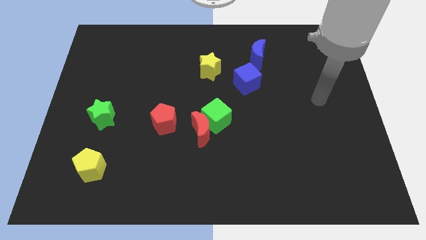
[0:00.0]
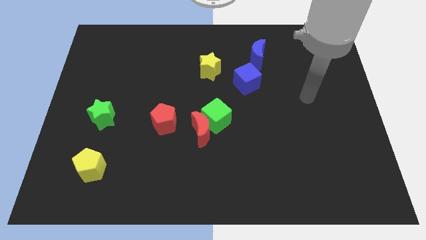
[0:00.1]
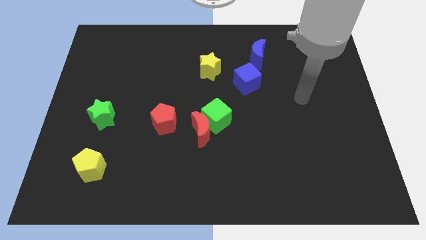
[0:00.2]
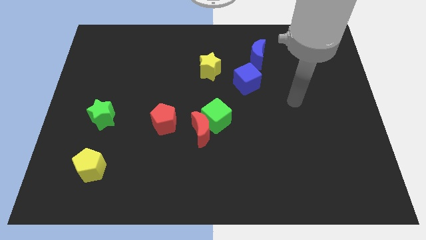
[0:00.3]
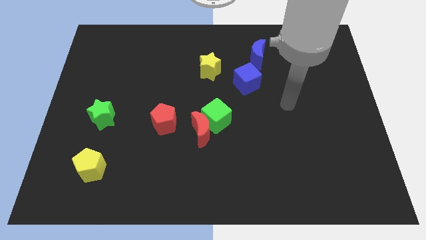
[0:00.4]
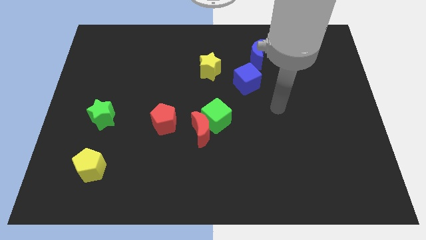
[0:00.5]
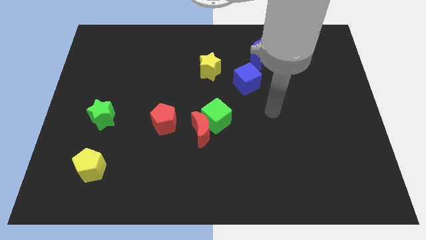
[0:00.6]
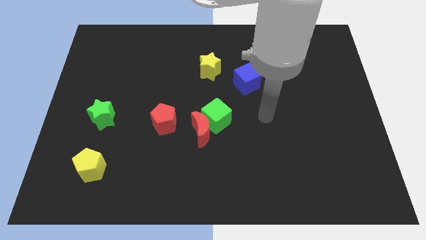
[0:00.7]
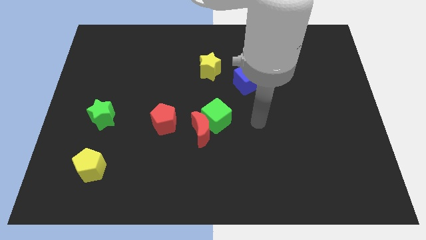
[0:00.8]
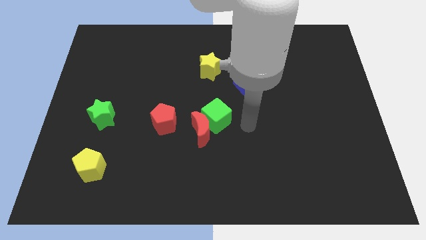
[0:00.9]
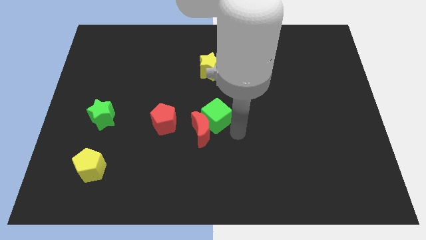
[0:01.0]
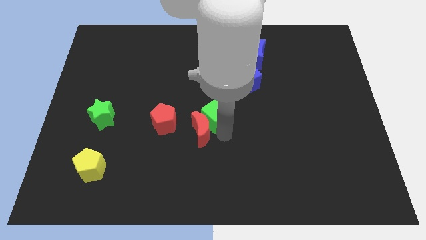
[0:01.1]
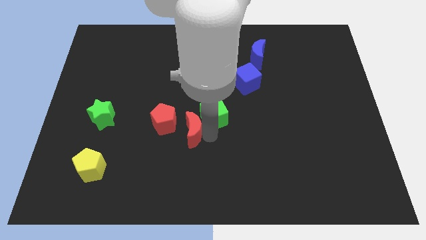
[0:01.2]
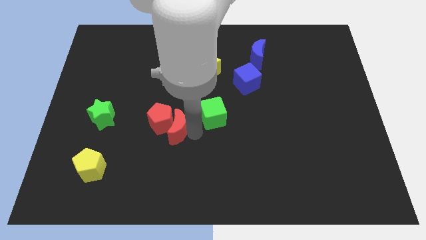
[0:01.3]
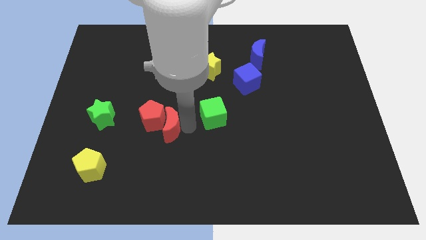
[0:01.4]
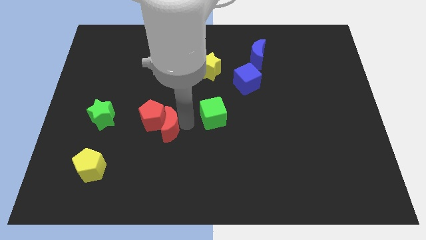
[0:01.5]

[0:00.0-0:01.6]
move the green cube away from the red moon

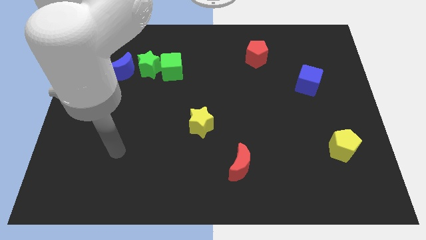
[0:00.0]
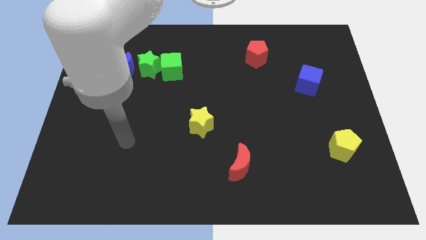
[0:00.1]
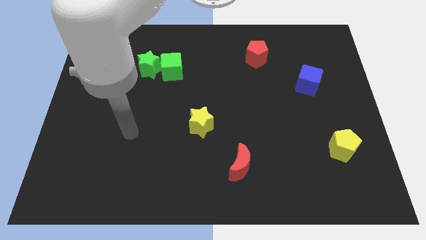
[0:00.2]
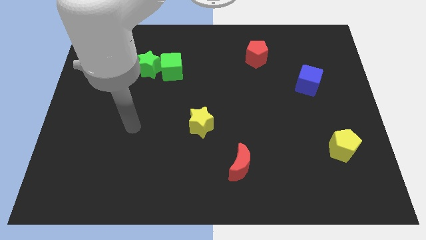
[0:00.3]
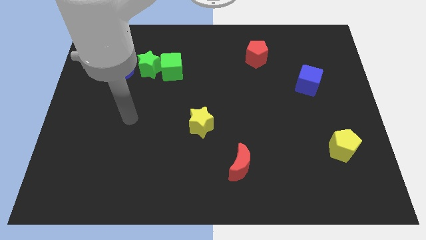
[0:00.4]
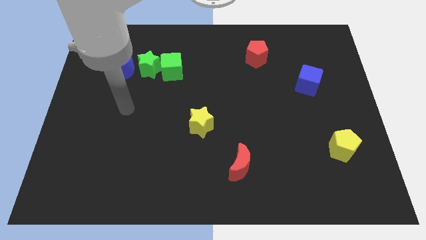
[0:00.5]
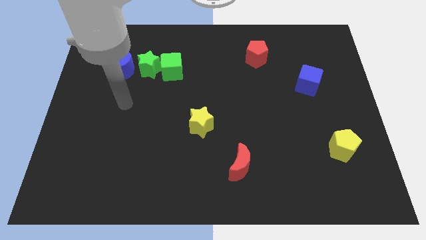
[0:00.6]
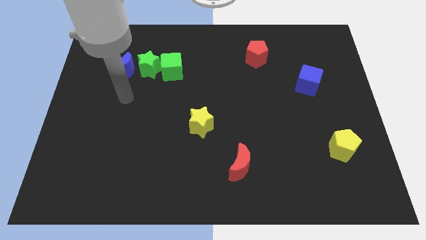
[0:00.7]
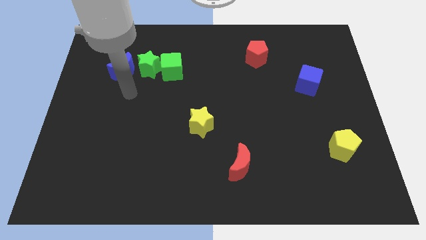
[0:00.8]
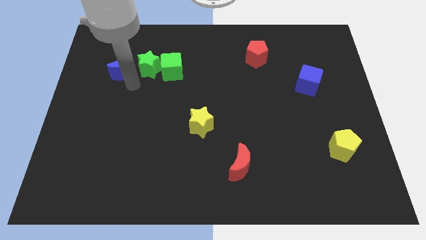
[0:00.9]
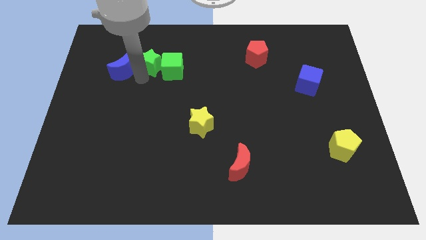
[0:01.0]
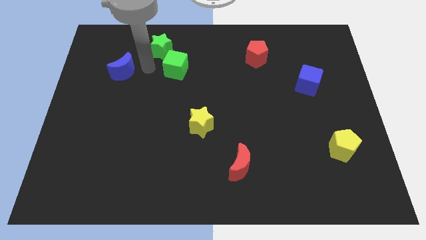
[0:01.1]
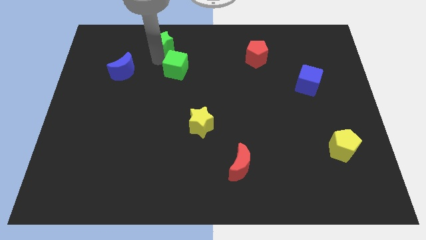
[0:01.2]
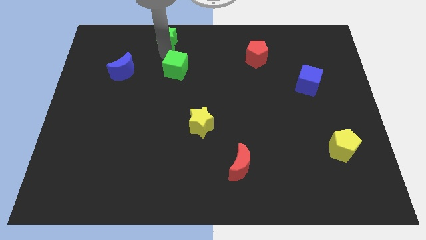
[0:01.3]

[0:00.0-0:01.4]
separate the green cube from the green star

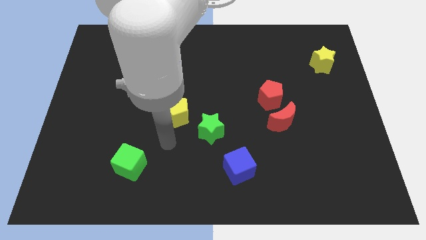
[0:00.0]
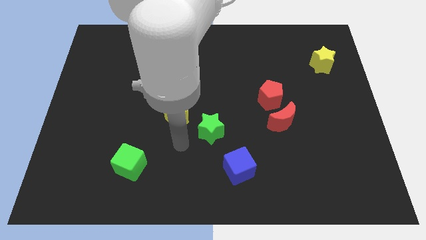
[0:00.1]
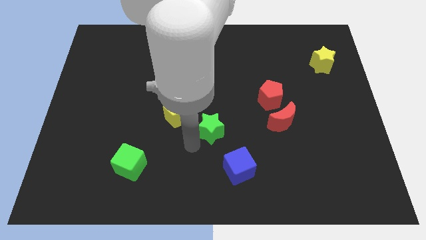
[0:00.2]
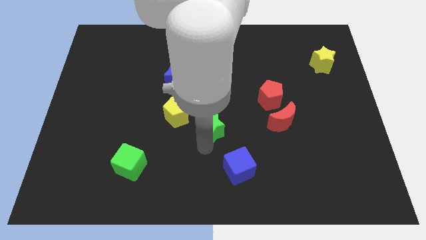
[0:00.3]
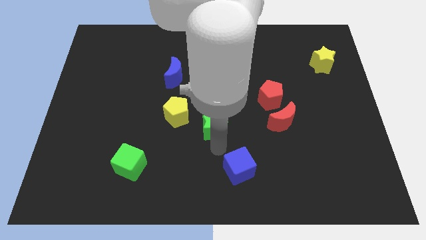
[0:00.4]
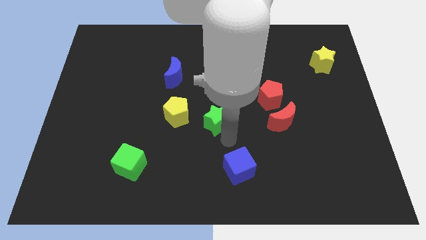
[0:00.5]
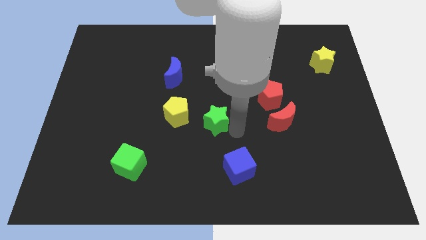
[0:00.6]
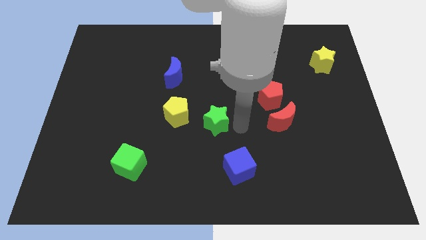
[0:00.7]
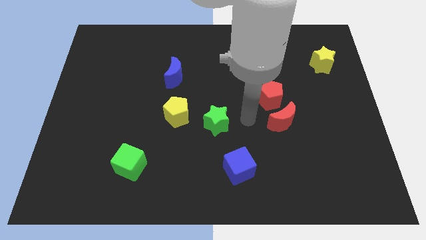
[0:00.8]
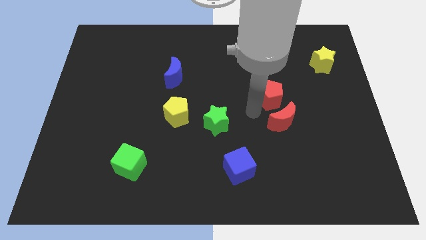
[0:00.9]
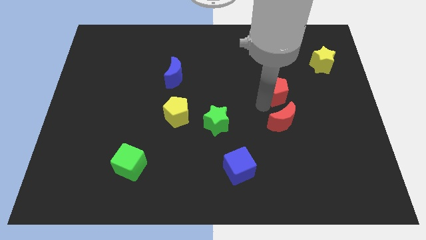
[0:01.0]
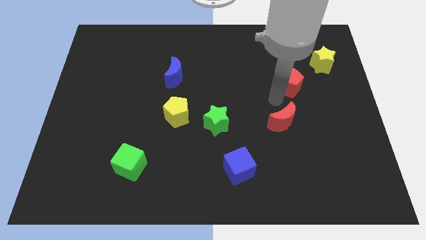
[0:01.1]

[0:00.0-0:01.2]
move the red moon away from the red pentagon

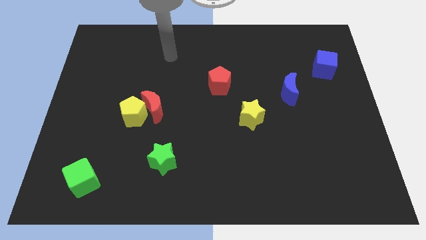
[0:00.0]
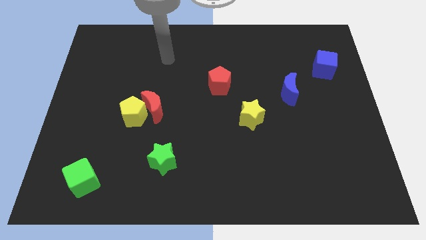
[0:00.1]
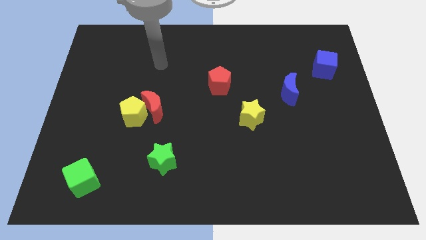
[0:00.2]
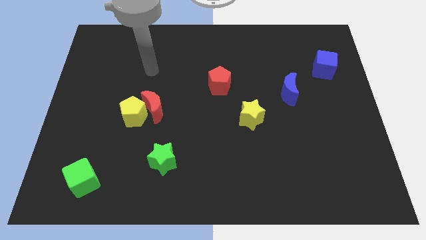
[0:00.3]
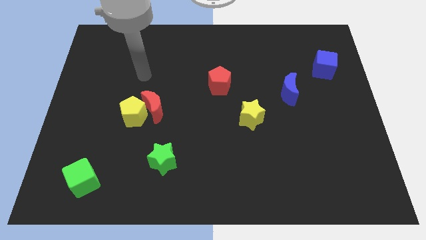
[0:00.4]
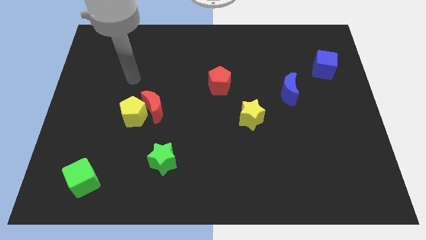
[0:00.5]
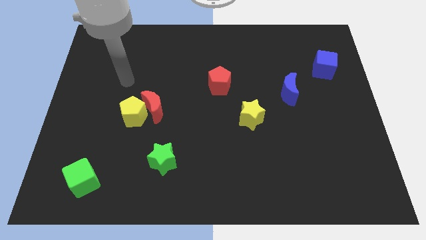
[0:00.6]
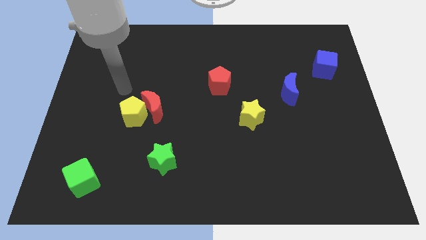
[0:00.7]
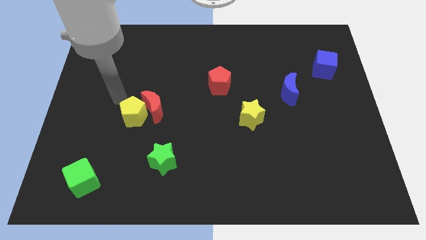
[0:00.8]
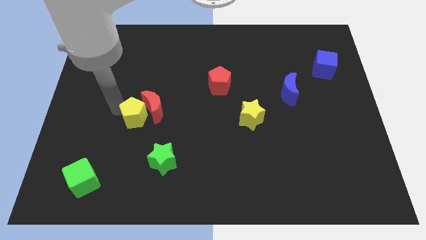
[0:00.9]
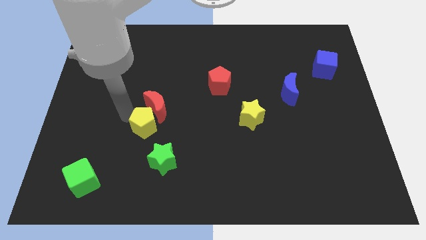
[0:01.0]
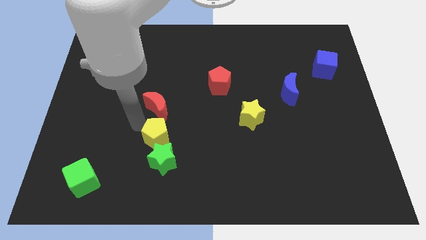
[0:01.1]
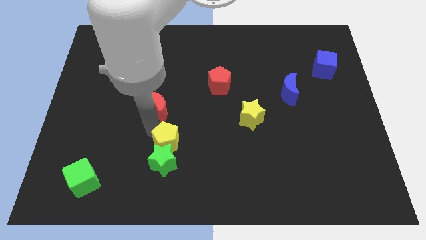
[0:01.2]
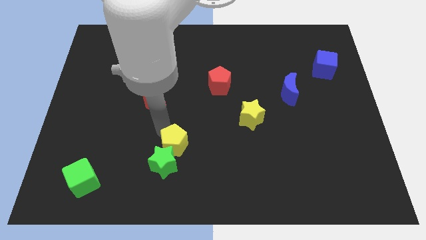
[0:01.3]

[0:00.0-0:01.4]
separate the red moon from the yellow pentagon

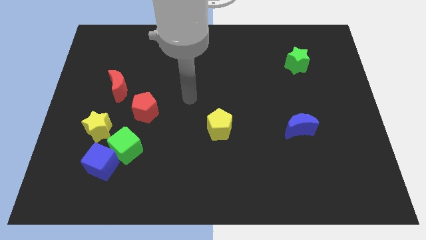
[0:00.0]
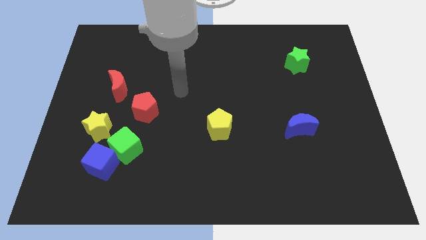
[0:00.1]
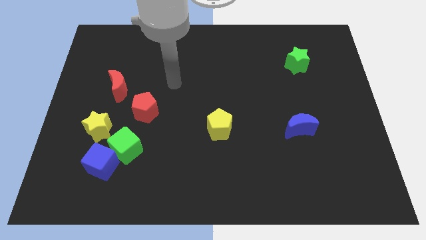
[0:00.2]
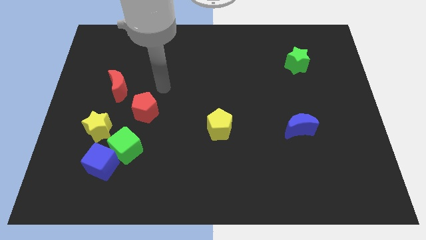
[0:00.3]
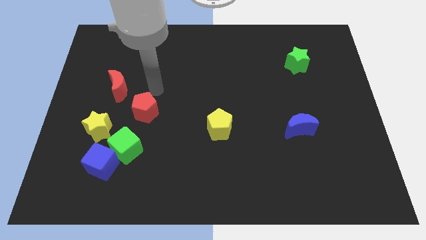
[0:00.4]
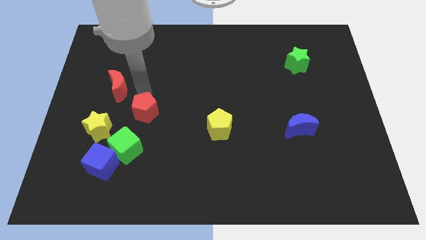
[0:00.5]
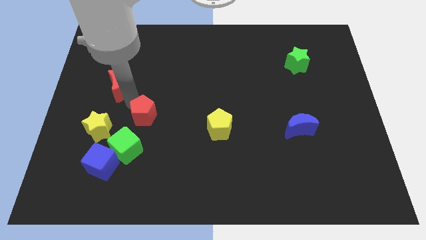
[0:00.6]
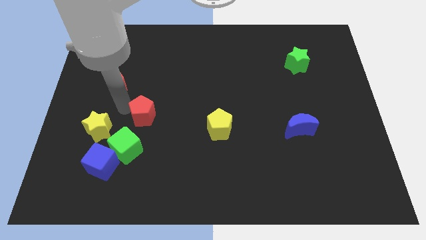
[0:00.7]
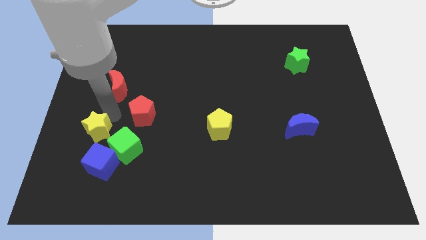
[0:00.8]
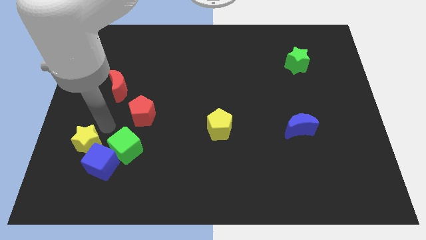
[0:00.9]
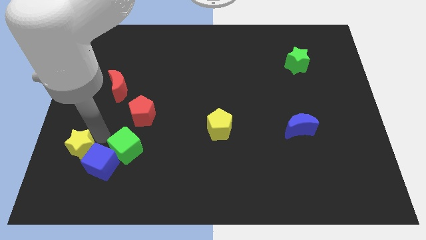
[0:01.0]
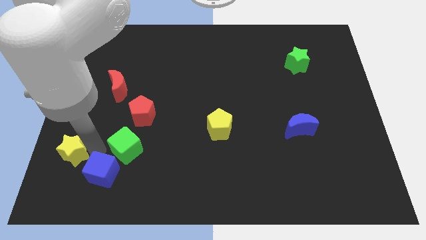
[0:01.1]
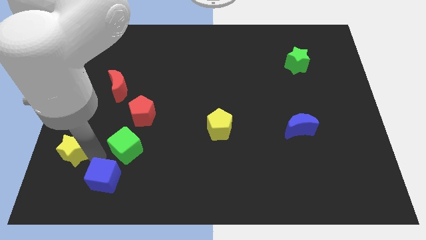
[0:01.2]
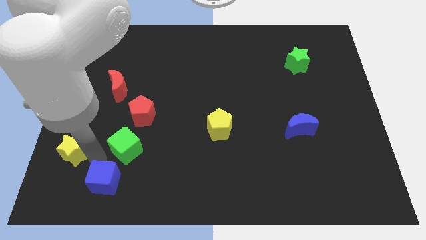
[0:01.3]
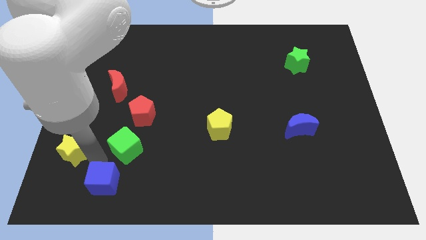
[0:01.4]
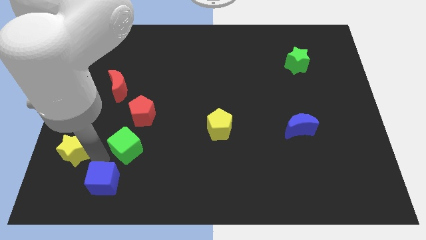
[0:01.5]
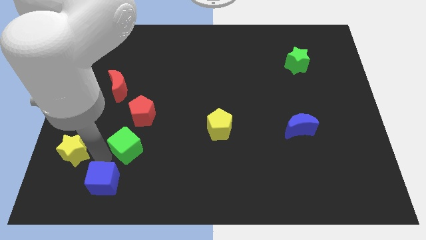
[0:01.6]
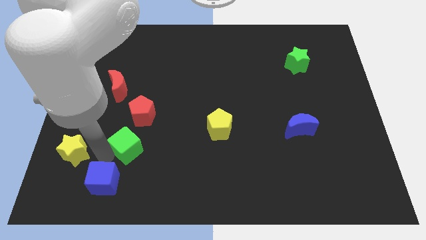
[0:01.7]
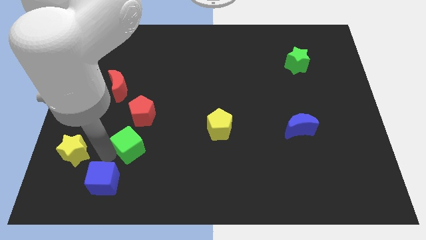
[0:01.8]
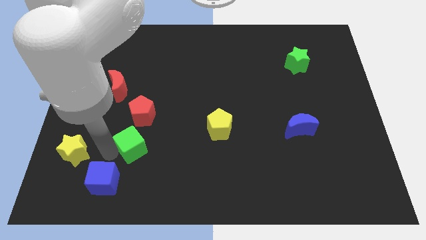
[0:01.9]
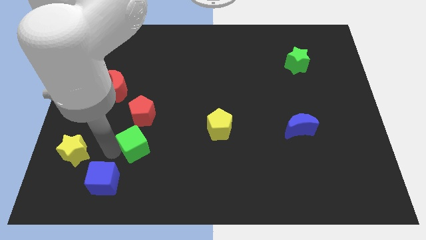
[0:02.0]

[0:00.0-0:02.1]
pull the green cube apart from the blue cube and yellow star

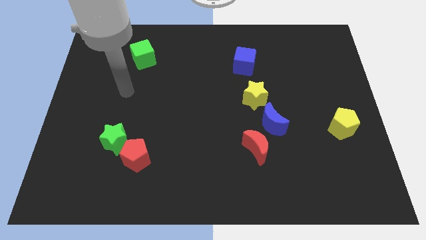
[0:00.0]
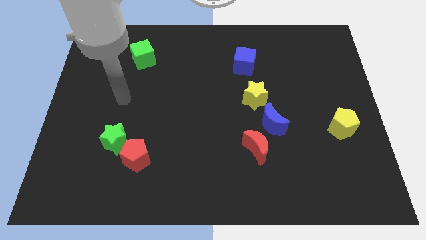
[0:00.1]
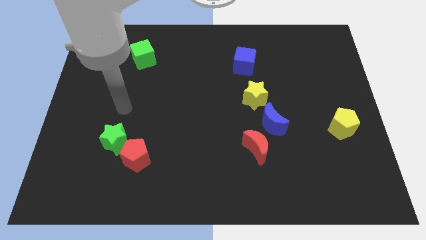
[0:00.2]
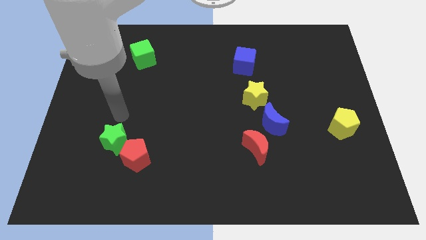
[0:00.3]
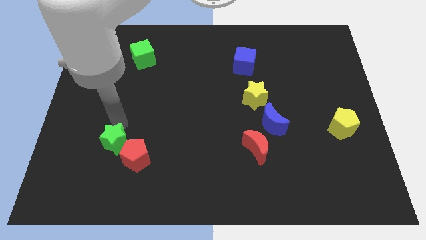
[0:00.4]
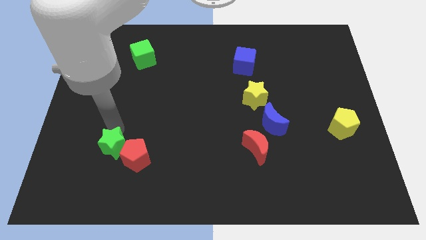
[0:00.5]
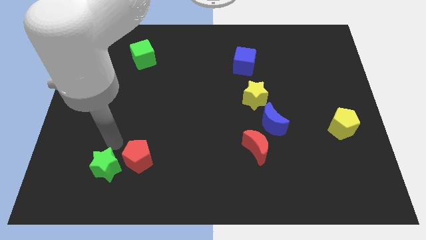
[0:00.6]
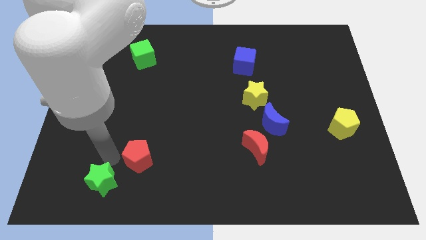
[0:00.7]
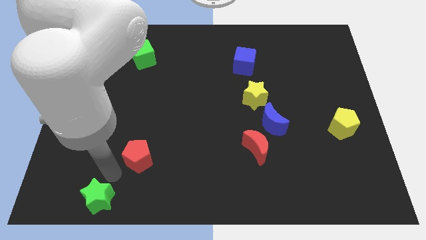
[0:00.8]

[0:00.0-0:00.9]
move the red pentagon away from the green star

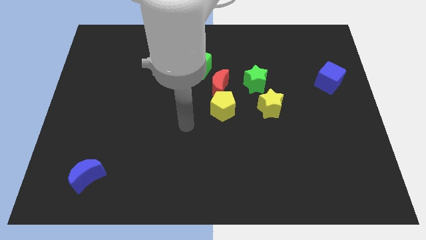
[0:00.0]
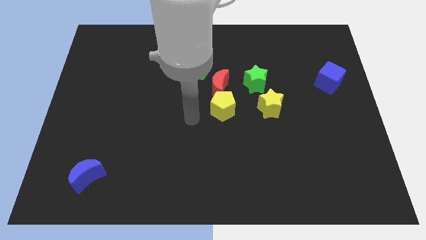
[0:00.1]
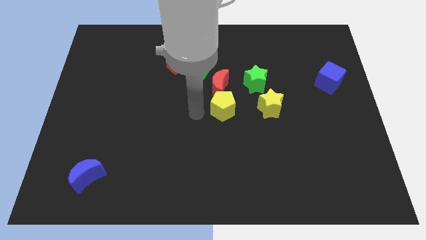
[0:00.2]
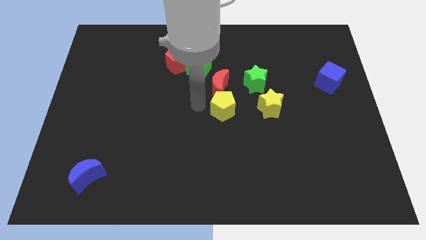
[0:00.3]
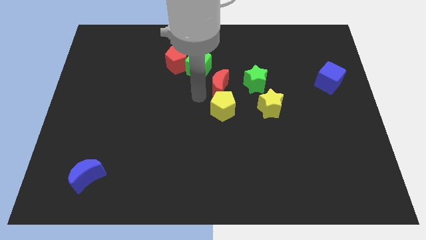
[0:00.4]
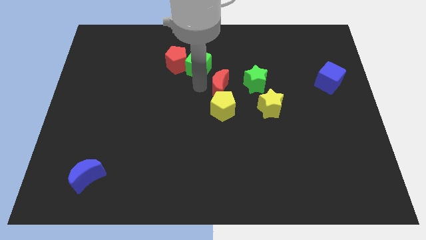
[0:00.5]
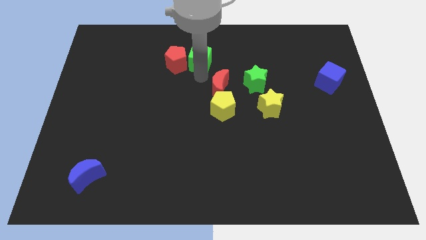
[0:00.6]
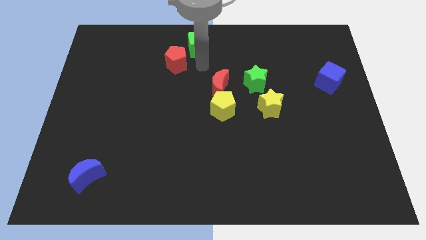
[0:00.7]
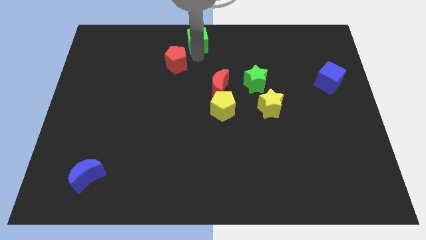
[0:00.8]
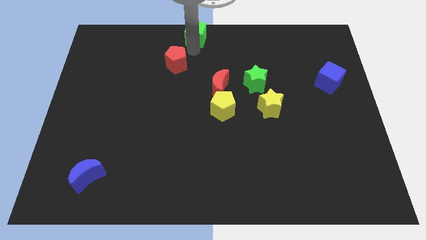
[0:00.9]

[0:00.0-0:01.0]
pull the red pentagon apart from the green cube
